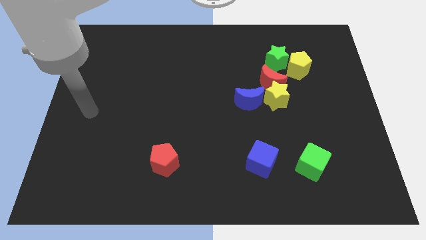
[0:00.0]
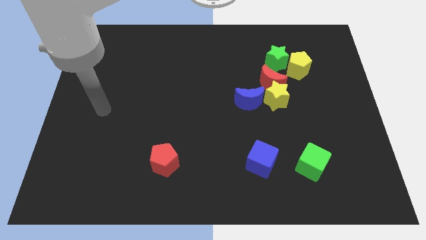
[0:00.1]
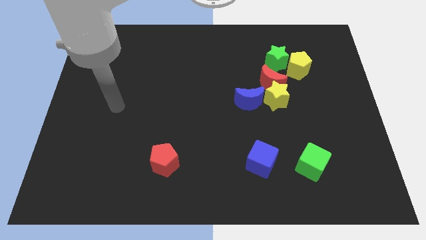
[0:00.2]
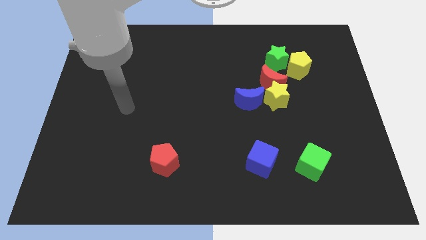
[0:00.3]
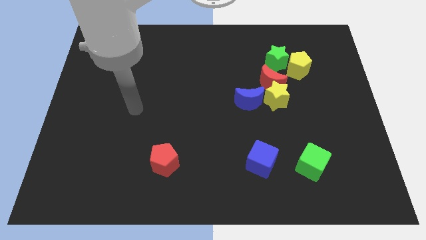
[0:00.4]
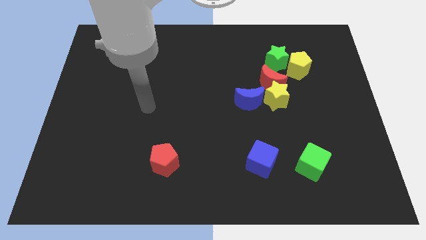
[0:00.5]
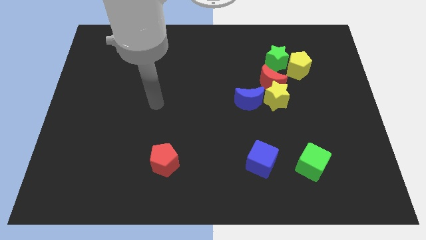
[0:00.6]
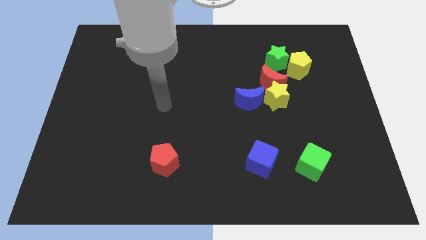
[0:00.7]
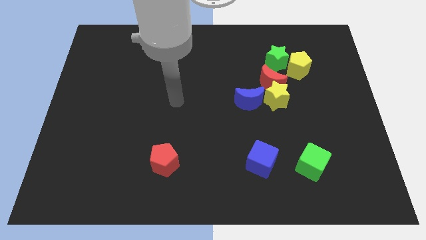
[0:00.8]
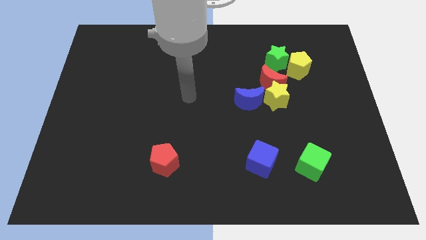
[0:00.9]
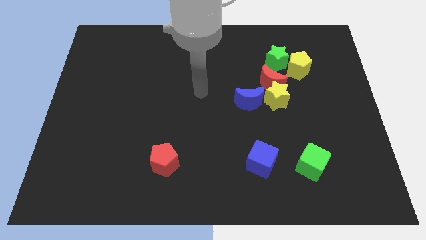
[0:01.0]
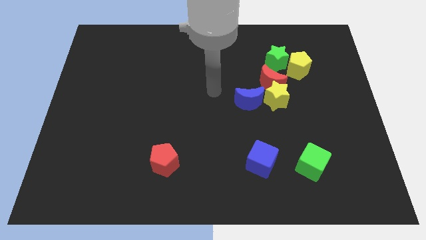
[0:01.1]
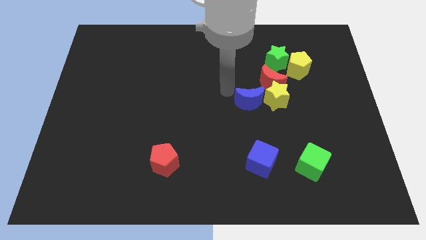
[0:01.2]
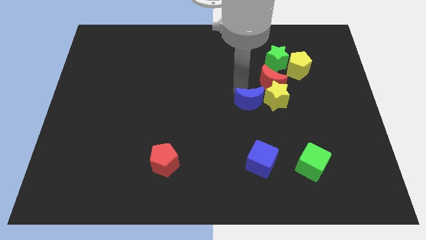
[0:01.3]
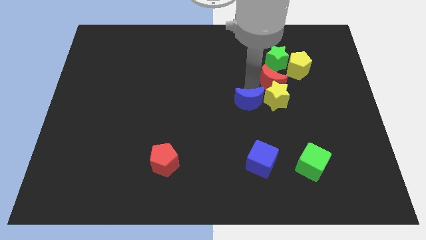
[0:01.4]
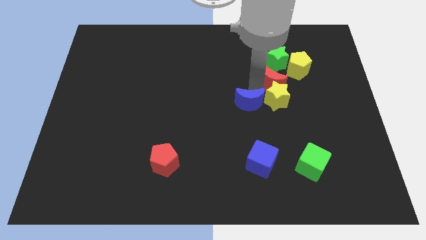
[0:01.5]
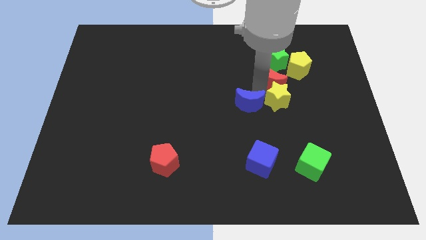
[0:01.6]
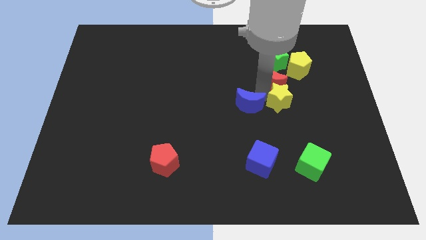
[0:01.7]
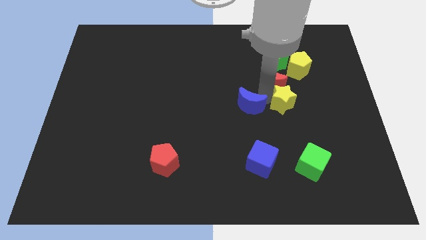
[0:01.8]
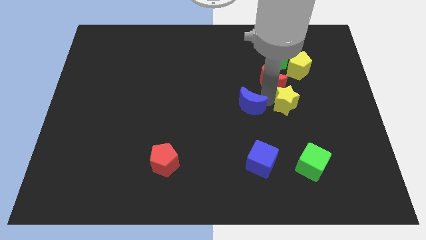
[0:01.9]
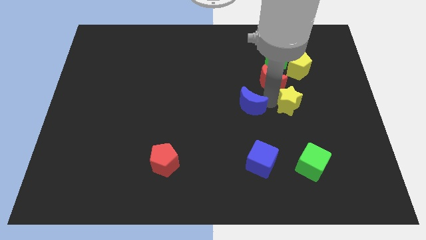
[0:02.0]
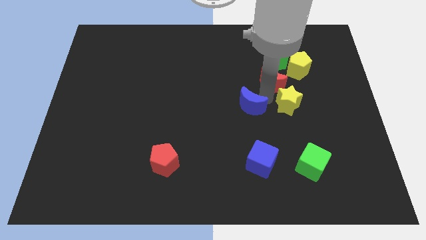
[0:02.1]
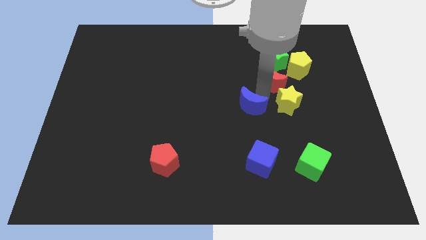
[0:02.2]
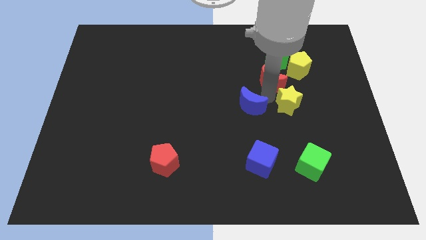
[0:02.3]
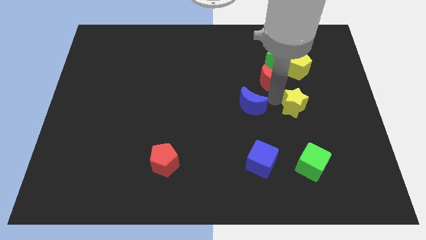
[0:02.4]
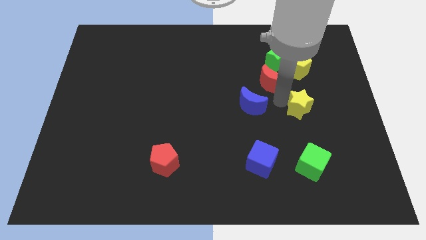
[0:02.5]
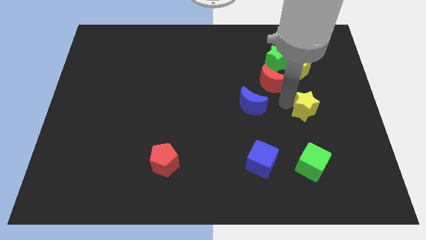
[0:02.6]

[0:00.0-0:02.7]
separate the yellow star from the red moon and blue moon

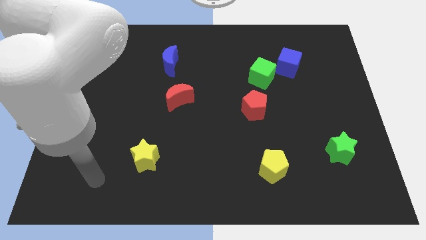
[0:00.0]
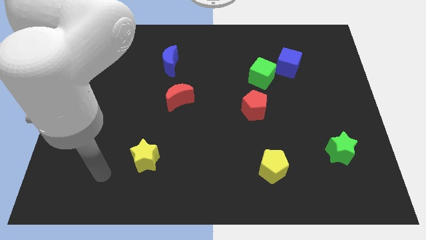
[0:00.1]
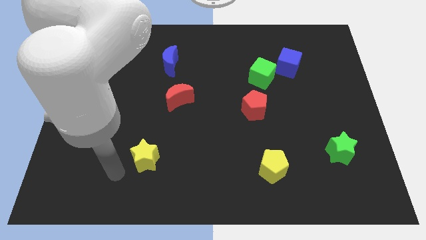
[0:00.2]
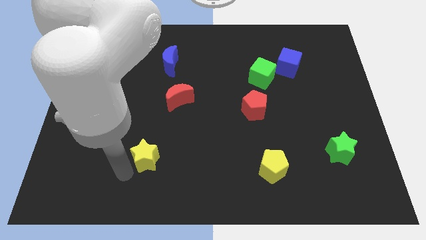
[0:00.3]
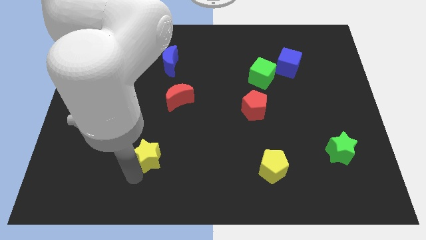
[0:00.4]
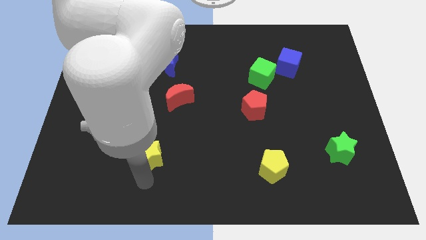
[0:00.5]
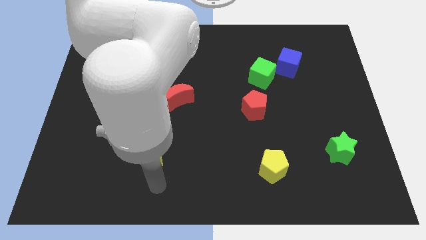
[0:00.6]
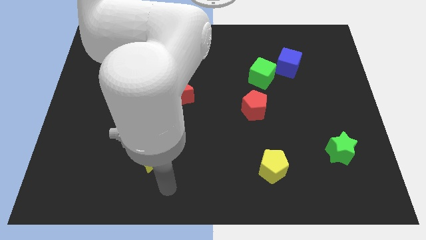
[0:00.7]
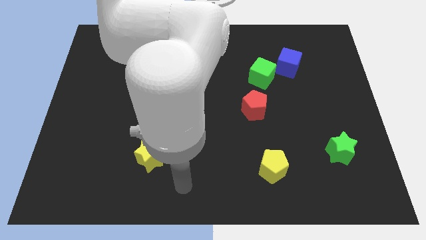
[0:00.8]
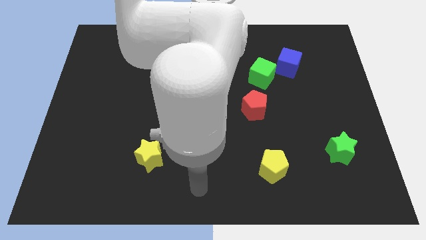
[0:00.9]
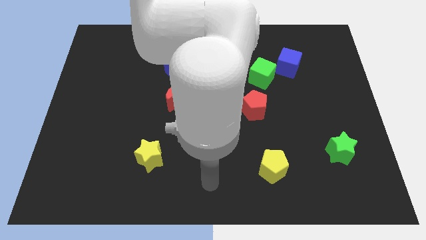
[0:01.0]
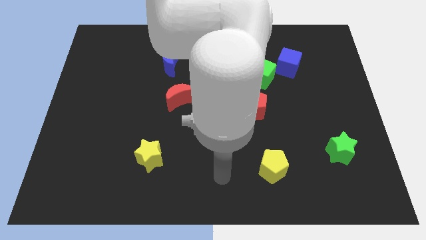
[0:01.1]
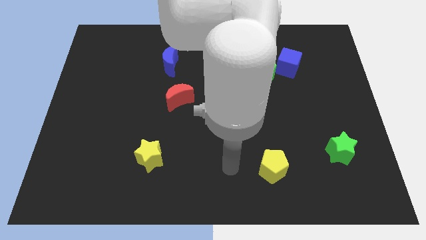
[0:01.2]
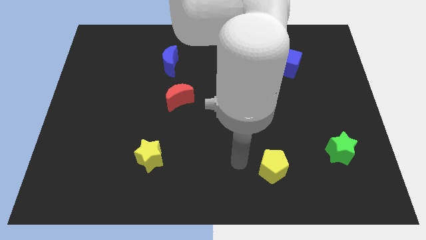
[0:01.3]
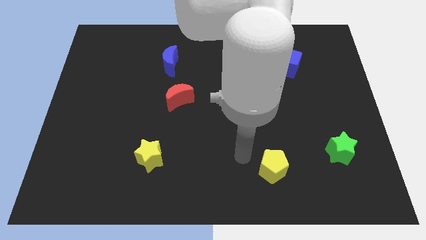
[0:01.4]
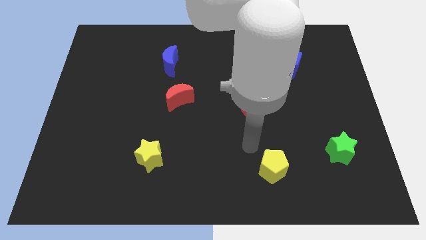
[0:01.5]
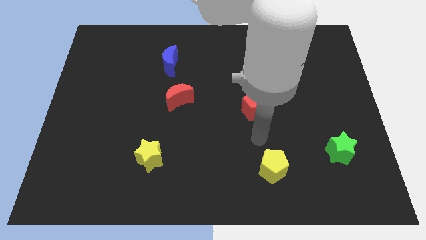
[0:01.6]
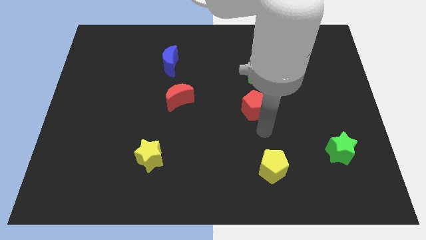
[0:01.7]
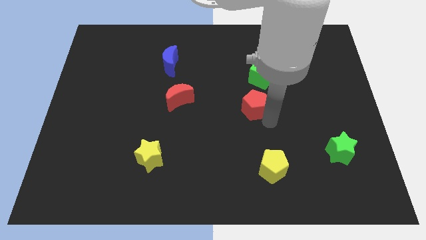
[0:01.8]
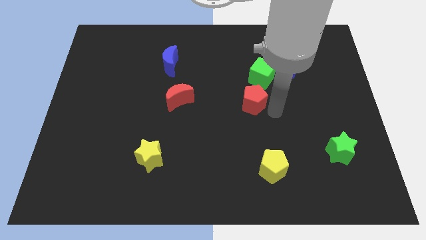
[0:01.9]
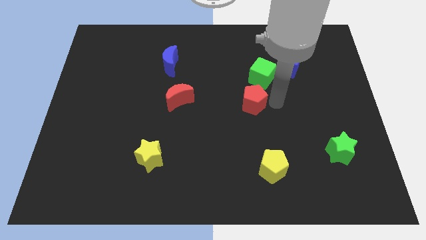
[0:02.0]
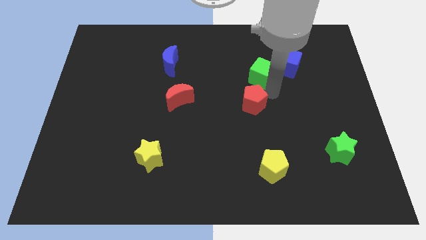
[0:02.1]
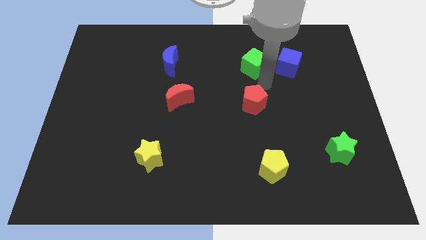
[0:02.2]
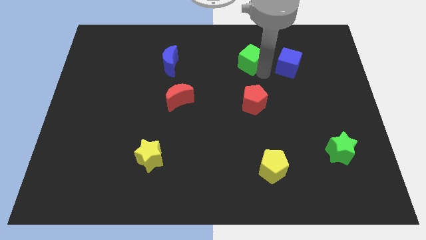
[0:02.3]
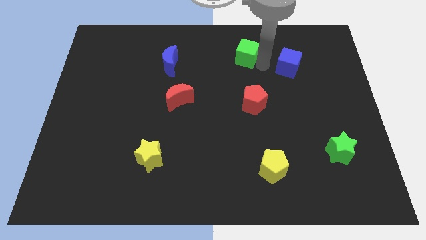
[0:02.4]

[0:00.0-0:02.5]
pull the blue cube apart from the green cube

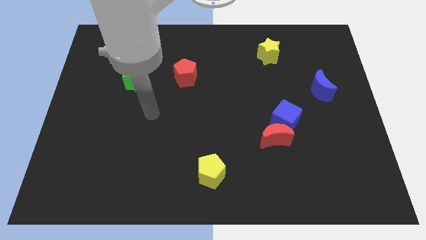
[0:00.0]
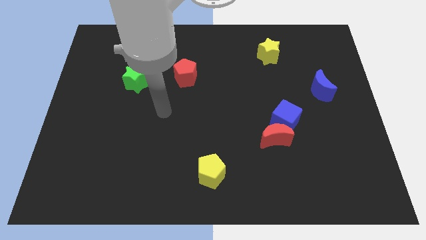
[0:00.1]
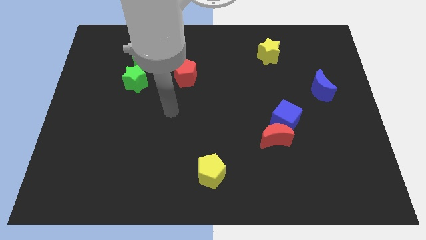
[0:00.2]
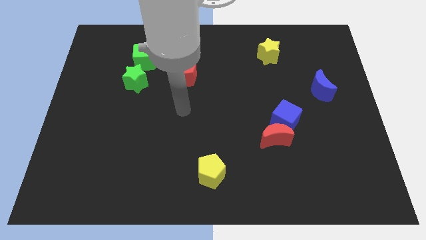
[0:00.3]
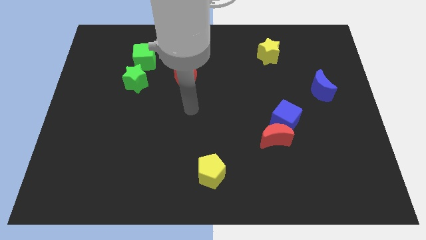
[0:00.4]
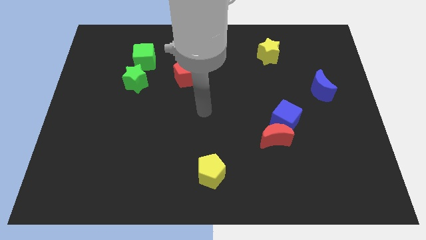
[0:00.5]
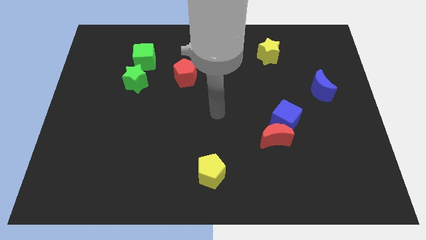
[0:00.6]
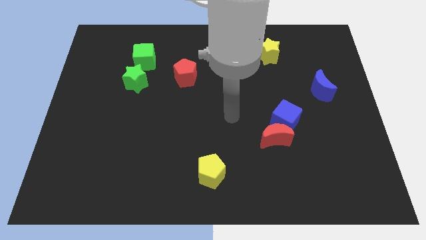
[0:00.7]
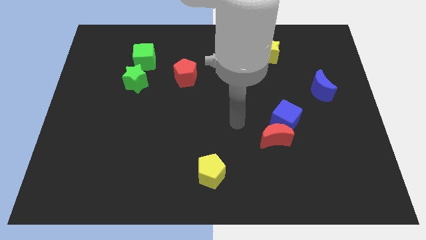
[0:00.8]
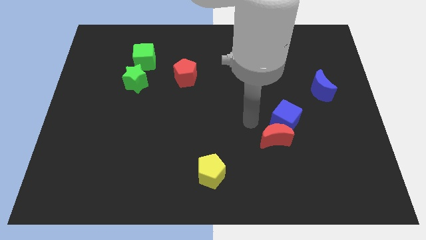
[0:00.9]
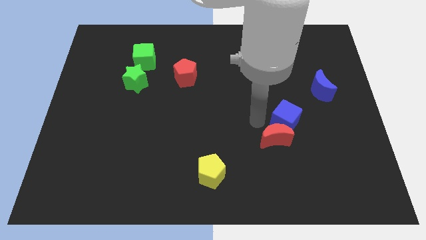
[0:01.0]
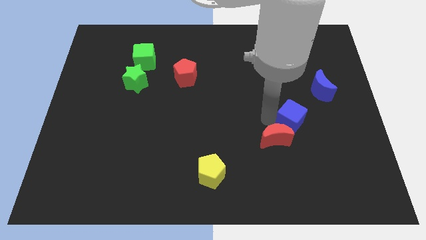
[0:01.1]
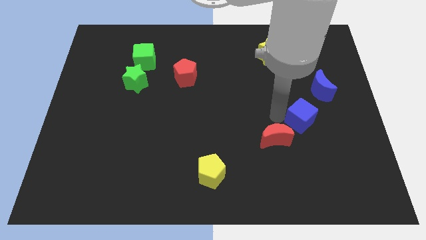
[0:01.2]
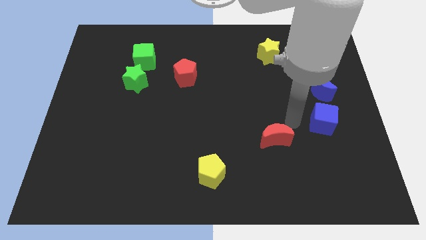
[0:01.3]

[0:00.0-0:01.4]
separate the red moon from the blue cube

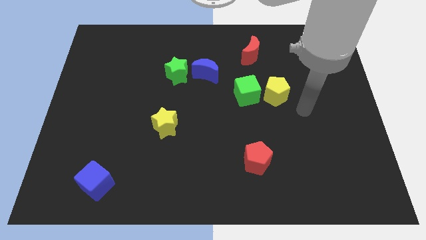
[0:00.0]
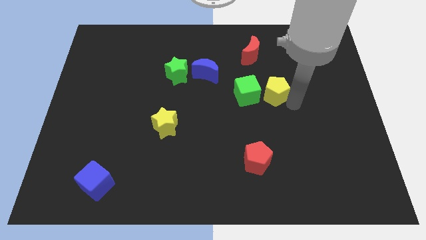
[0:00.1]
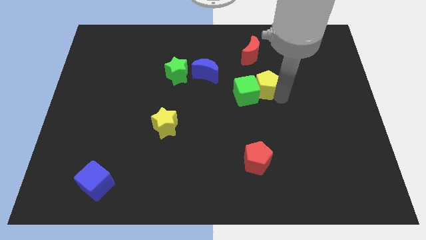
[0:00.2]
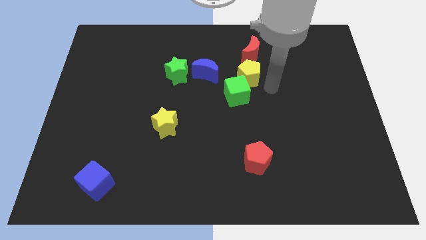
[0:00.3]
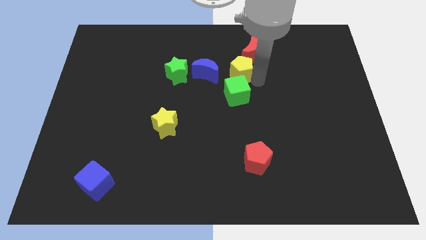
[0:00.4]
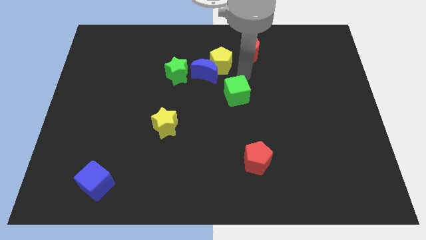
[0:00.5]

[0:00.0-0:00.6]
pull the green cube apart from the yellow pentagon

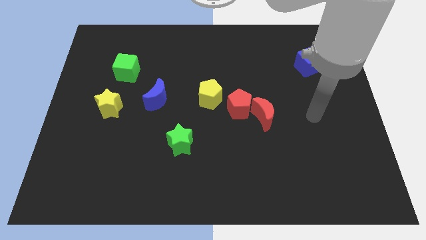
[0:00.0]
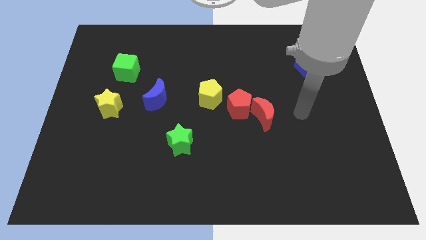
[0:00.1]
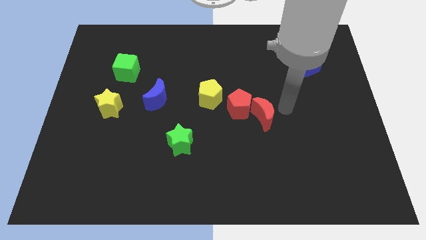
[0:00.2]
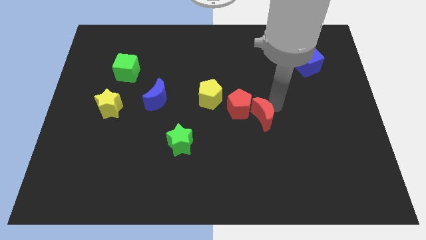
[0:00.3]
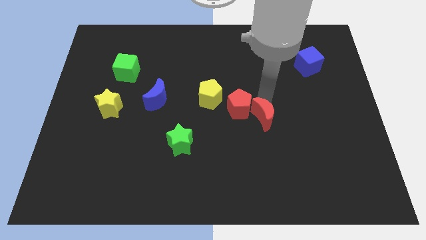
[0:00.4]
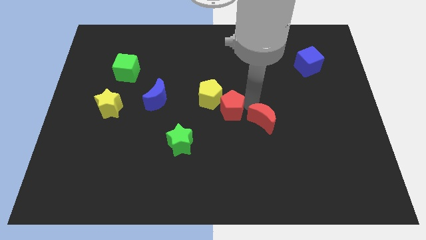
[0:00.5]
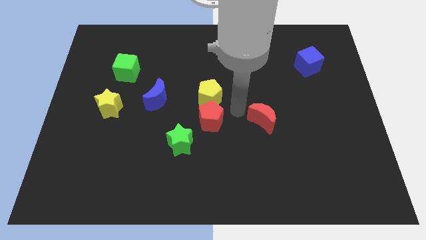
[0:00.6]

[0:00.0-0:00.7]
separate the red moon from the red pentagon

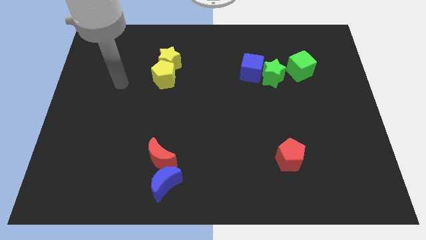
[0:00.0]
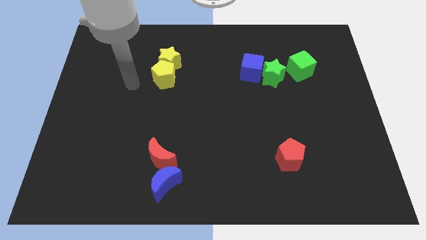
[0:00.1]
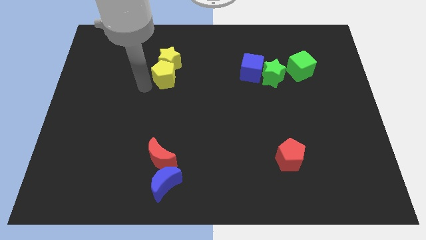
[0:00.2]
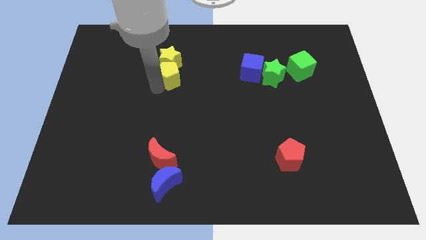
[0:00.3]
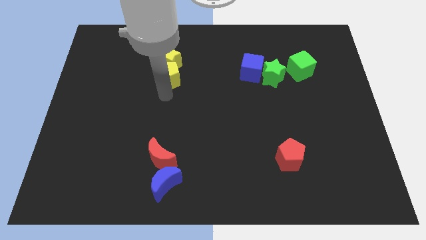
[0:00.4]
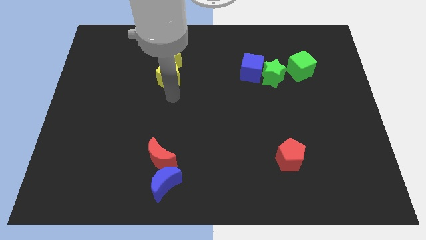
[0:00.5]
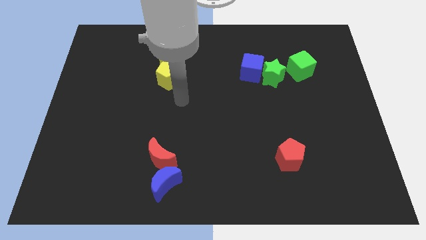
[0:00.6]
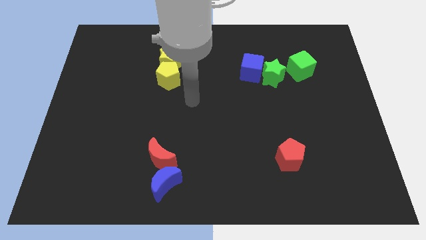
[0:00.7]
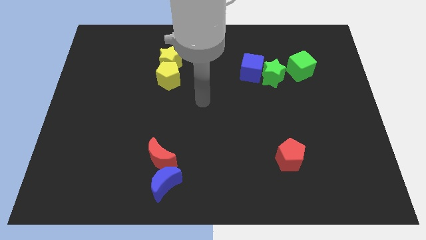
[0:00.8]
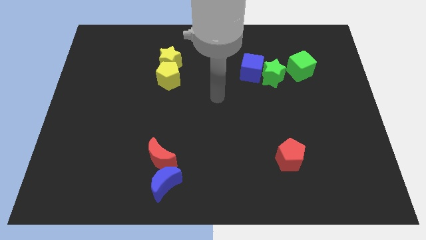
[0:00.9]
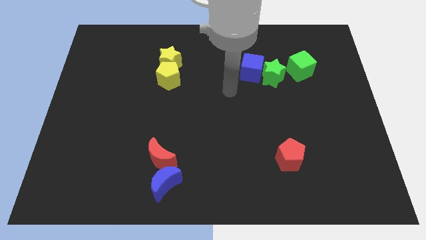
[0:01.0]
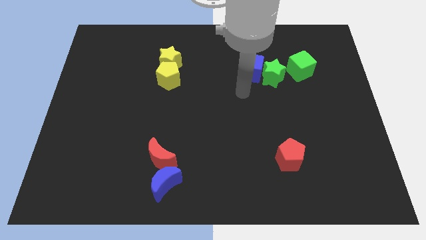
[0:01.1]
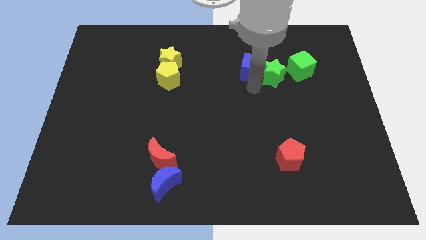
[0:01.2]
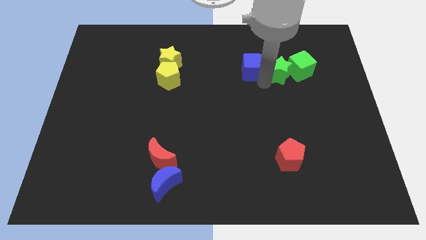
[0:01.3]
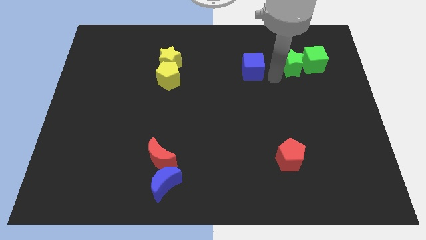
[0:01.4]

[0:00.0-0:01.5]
separate the blue cube from the green star
